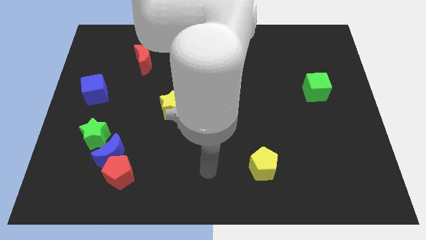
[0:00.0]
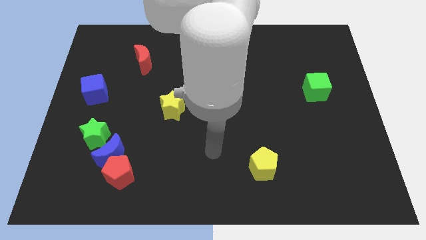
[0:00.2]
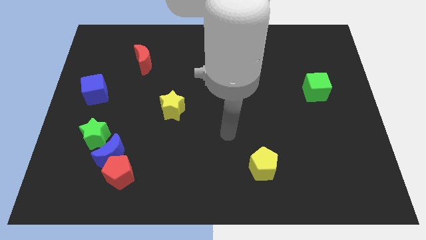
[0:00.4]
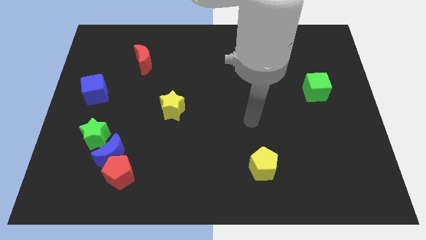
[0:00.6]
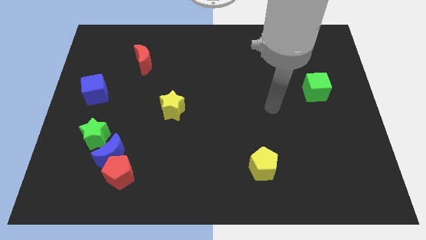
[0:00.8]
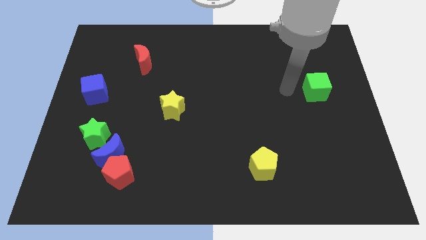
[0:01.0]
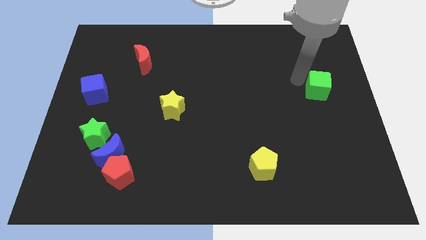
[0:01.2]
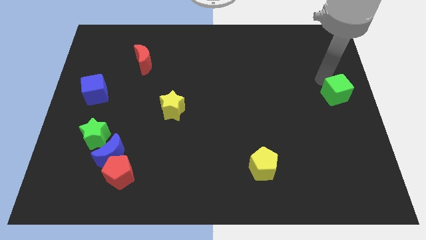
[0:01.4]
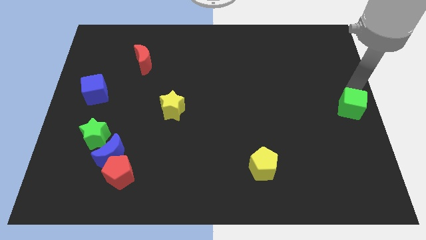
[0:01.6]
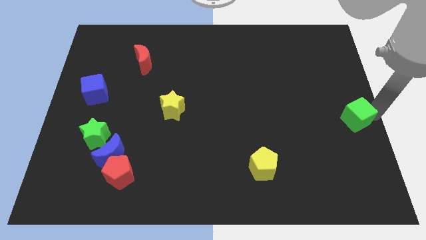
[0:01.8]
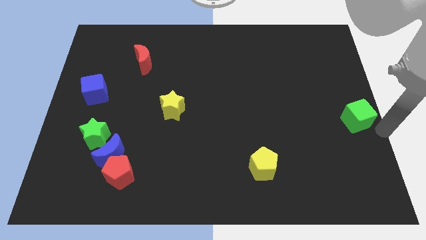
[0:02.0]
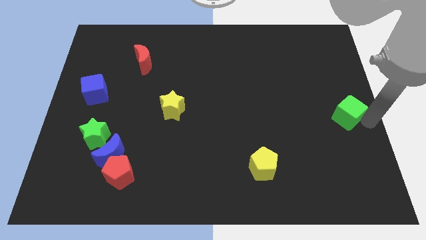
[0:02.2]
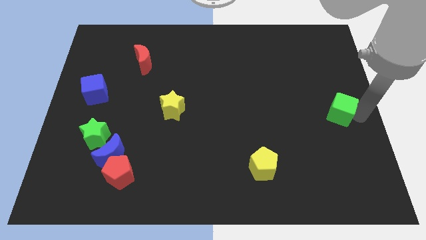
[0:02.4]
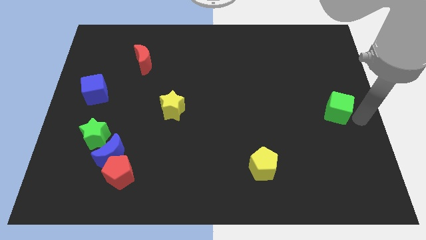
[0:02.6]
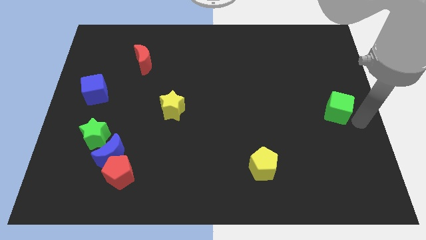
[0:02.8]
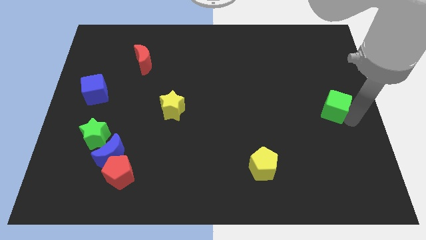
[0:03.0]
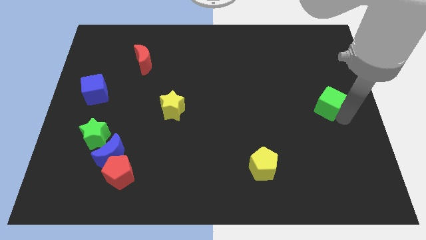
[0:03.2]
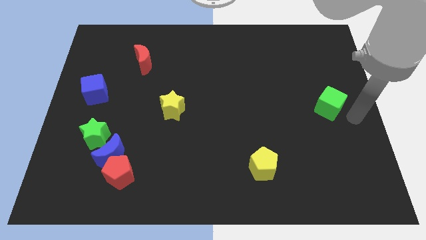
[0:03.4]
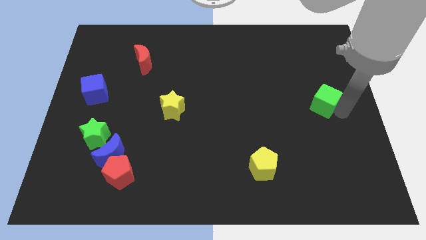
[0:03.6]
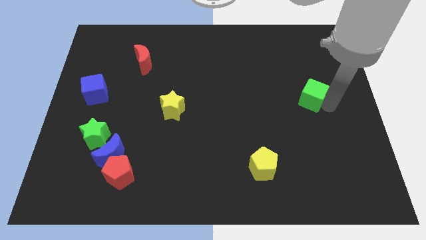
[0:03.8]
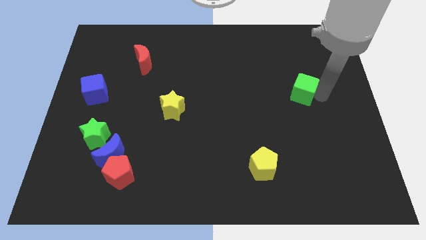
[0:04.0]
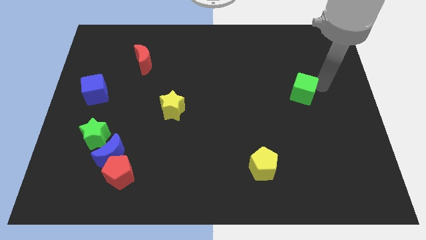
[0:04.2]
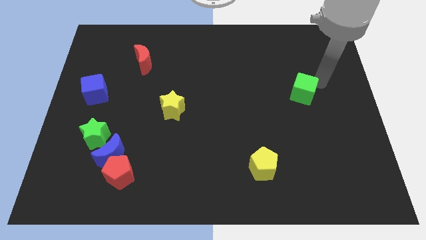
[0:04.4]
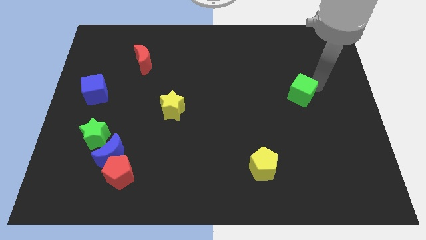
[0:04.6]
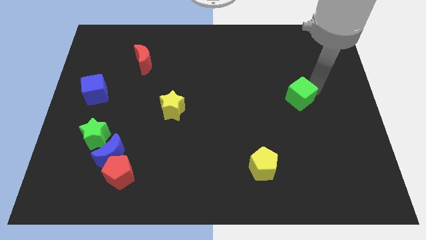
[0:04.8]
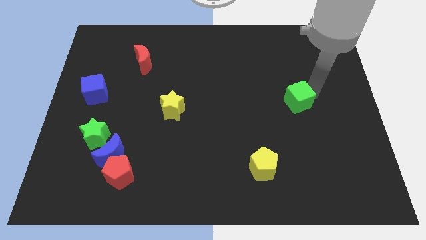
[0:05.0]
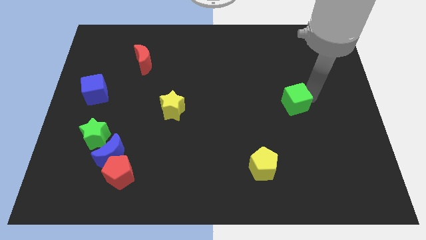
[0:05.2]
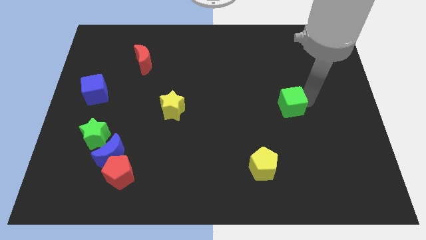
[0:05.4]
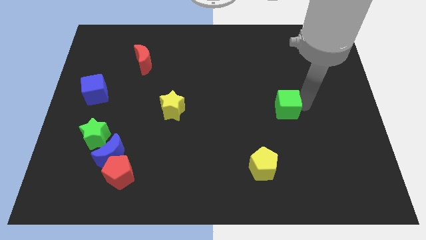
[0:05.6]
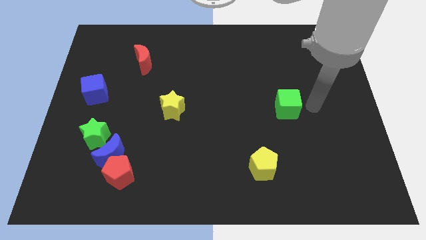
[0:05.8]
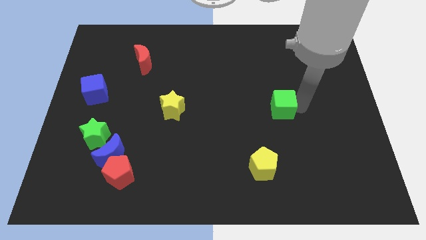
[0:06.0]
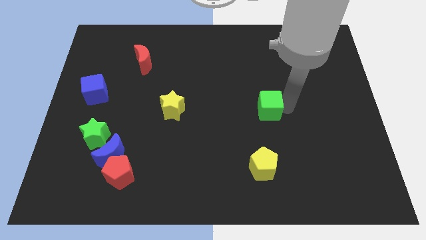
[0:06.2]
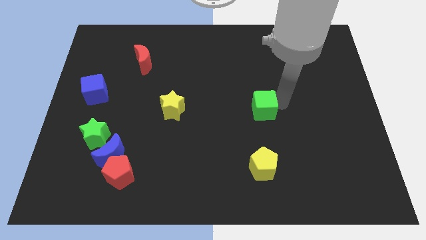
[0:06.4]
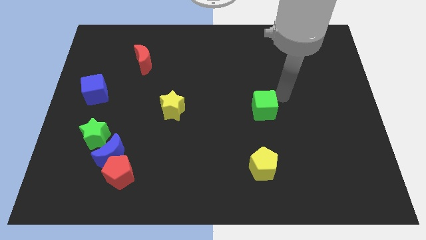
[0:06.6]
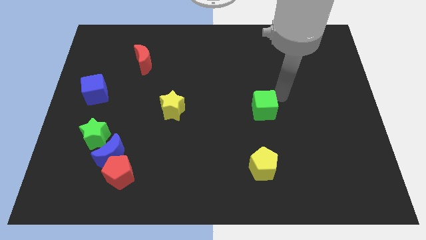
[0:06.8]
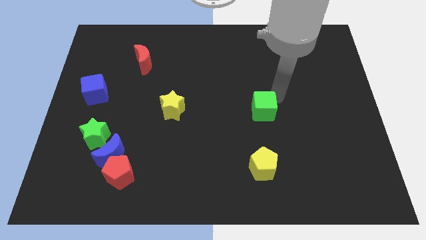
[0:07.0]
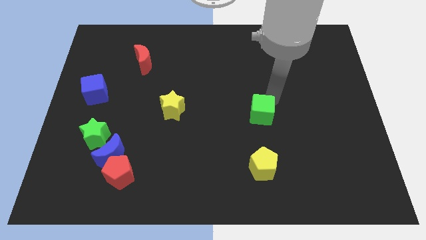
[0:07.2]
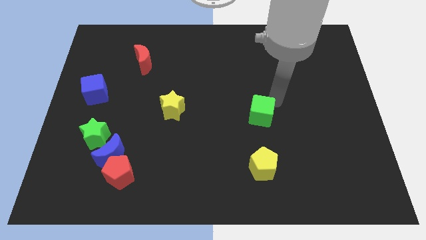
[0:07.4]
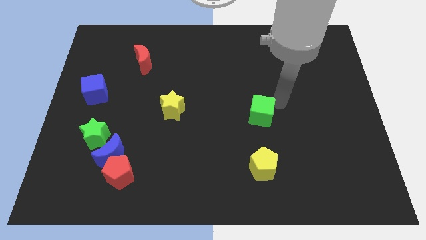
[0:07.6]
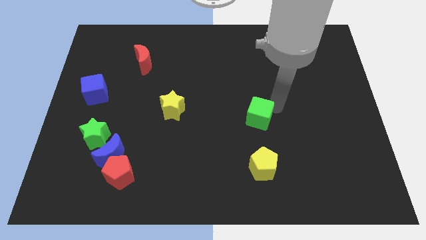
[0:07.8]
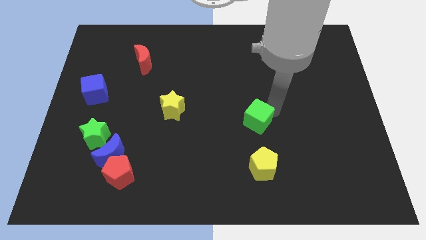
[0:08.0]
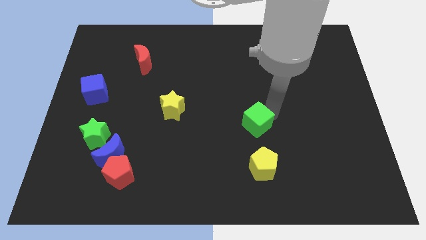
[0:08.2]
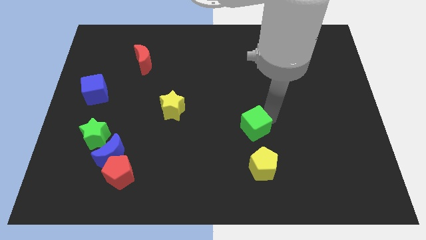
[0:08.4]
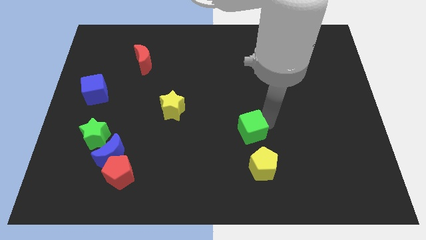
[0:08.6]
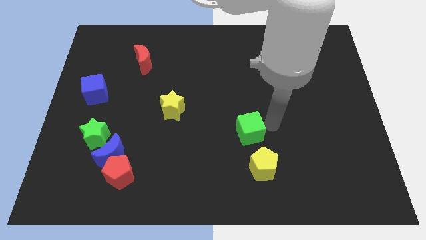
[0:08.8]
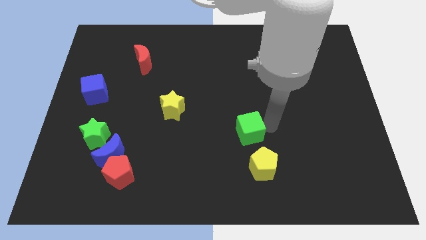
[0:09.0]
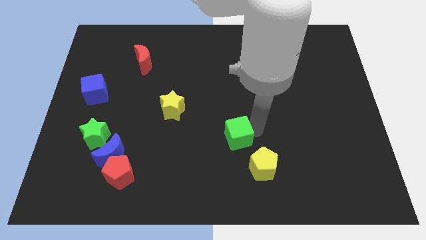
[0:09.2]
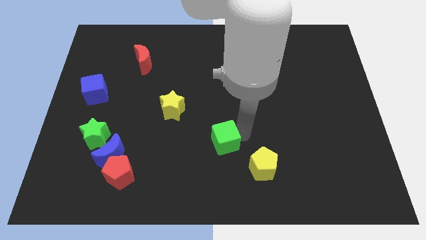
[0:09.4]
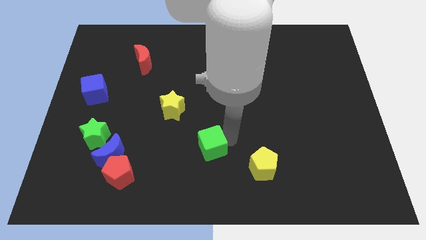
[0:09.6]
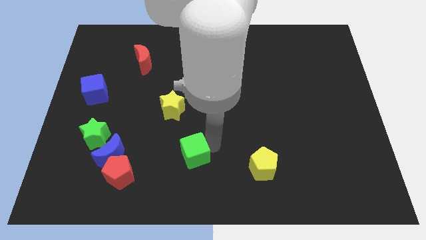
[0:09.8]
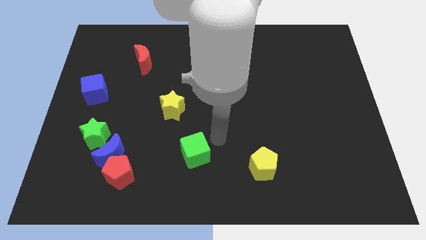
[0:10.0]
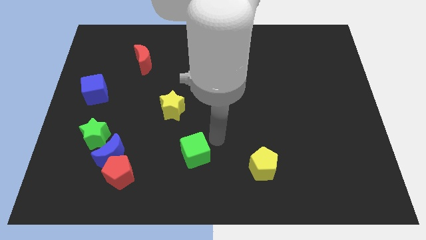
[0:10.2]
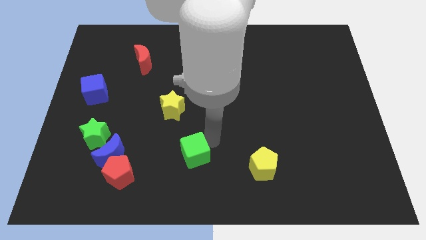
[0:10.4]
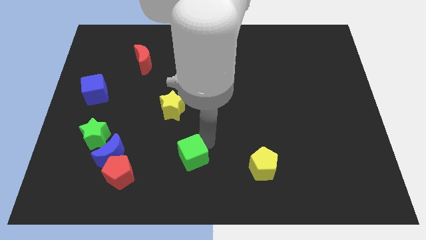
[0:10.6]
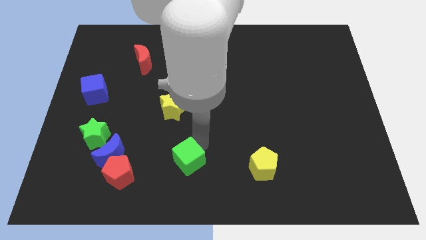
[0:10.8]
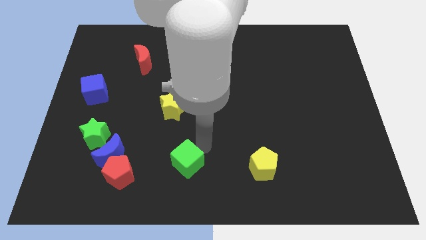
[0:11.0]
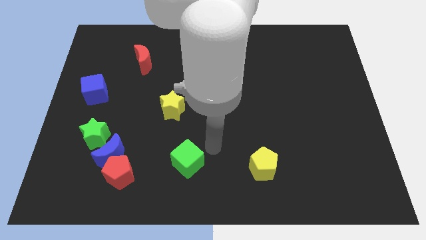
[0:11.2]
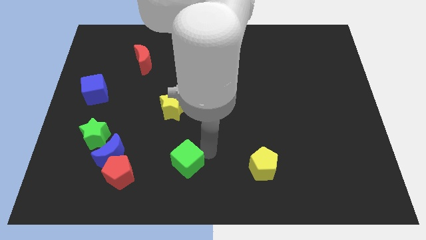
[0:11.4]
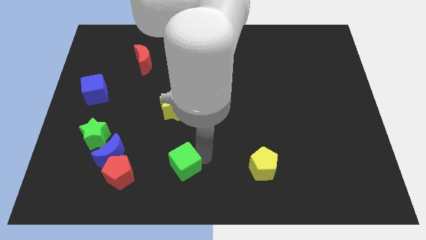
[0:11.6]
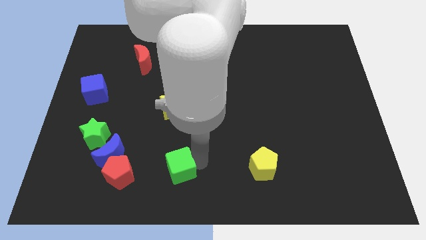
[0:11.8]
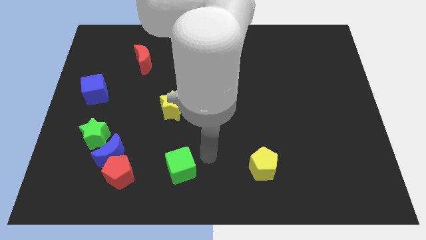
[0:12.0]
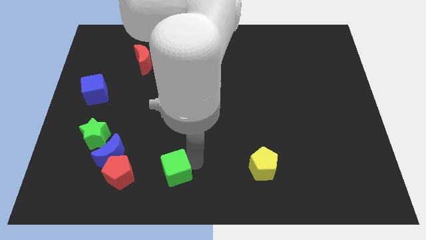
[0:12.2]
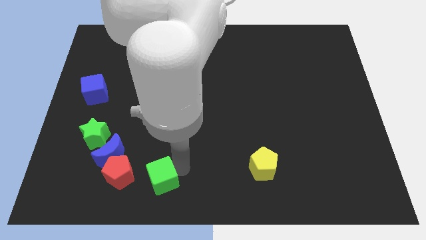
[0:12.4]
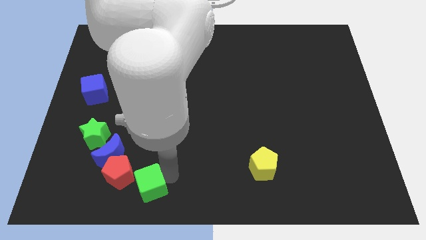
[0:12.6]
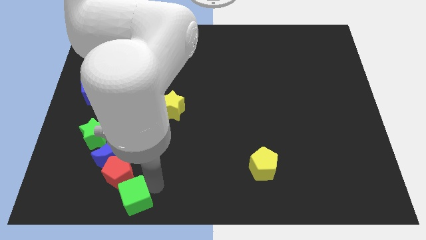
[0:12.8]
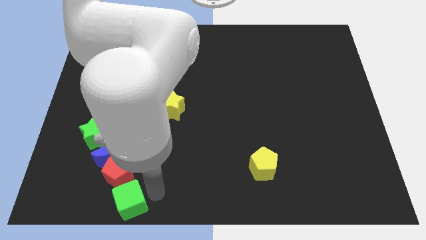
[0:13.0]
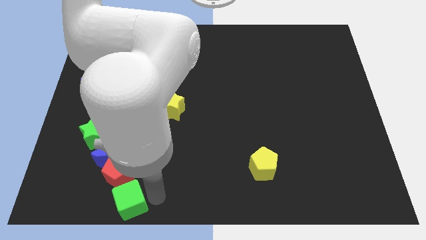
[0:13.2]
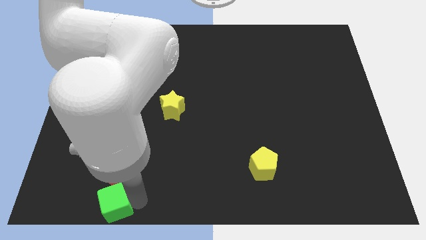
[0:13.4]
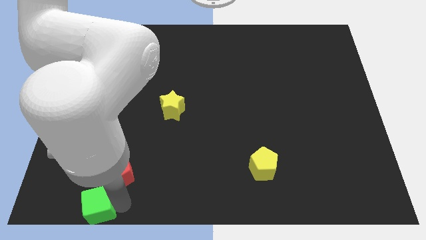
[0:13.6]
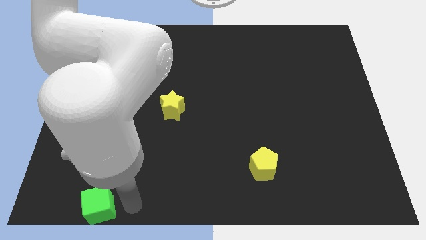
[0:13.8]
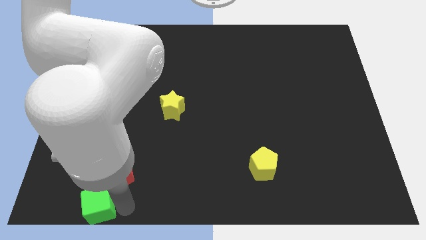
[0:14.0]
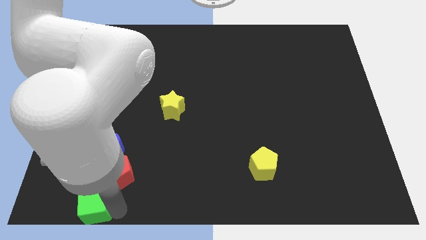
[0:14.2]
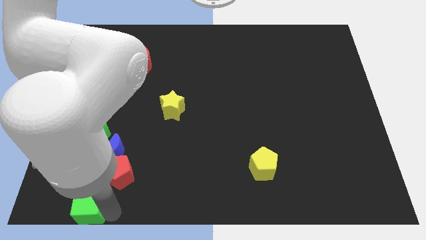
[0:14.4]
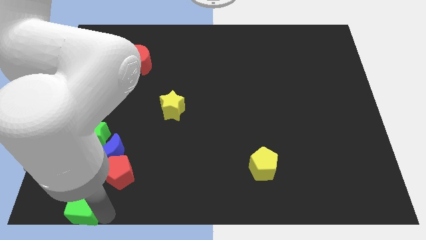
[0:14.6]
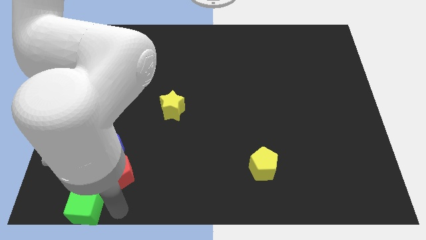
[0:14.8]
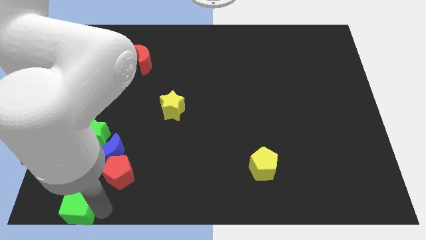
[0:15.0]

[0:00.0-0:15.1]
push the green cube to the bottom left corner
